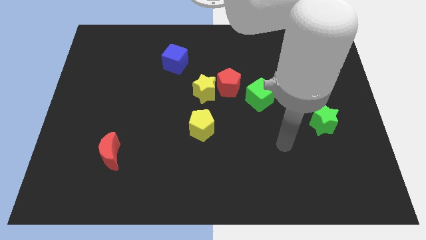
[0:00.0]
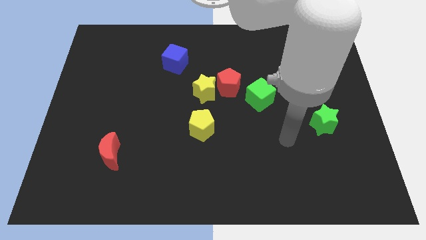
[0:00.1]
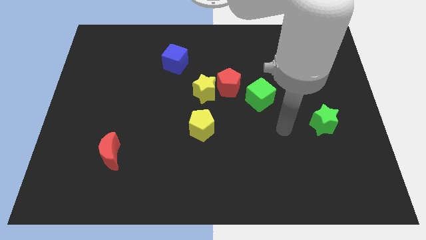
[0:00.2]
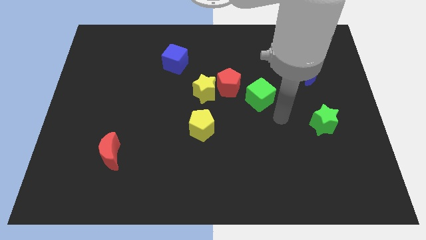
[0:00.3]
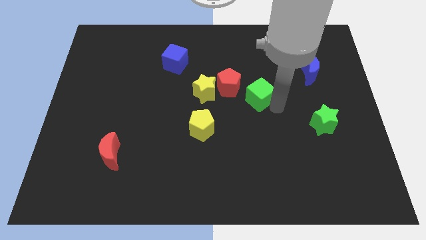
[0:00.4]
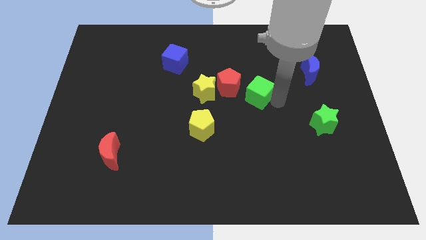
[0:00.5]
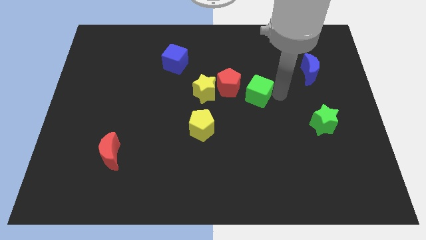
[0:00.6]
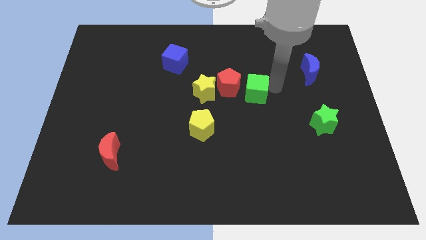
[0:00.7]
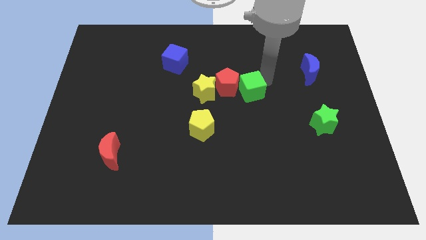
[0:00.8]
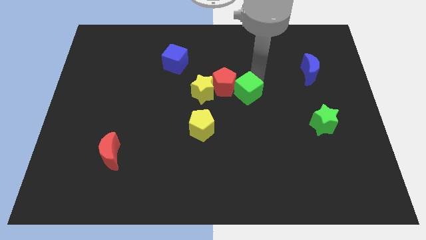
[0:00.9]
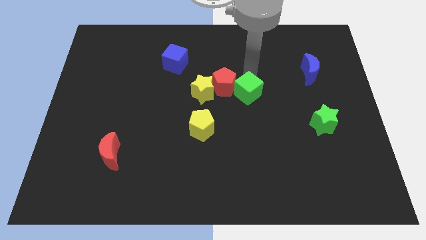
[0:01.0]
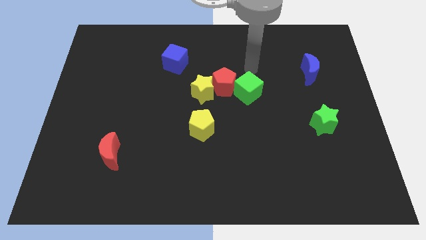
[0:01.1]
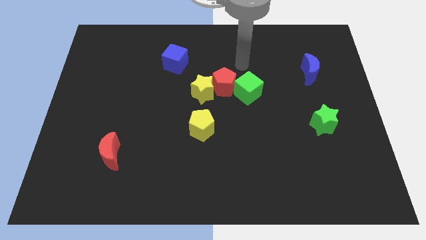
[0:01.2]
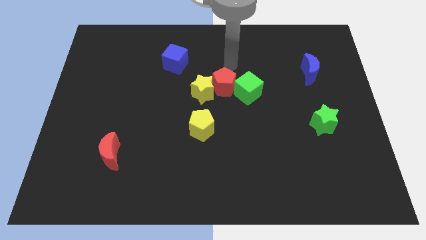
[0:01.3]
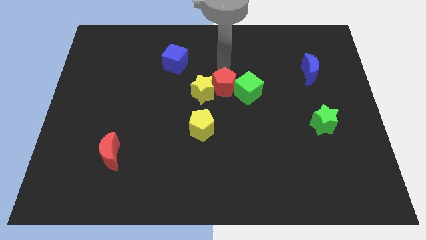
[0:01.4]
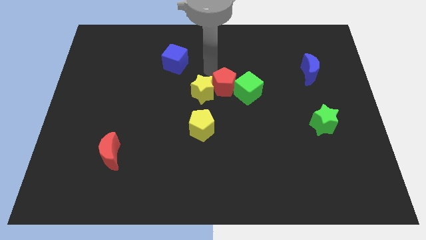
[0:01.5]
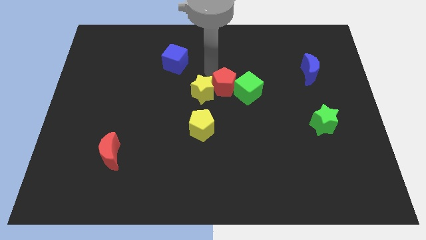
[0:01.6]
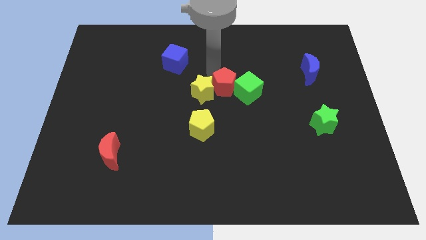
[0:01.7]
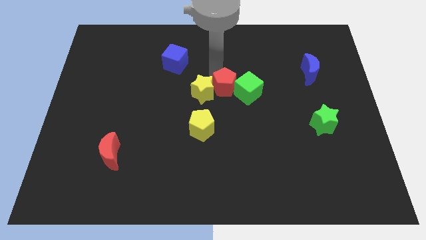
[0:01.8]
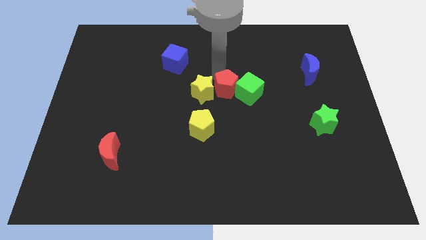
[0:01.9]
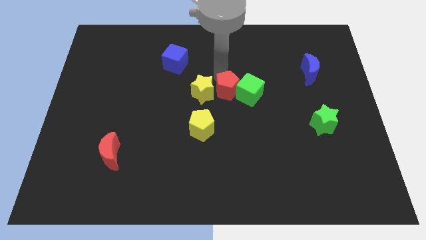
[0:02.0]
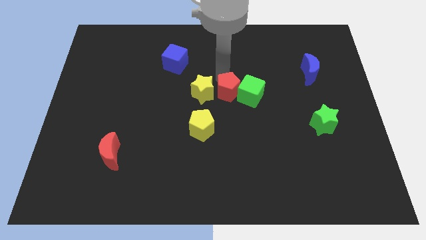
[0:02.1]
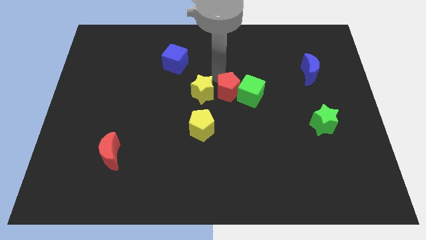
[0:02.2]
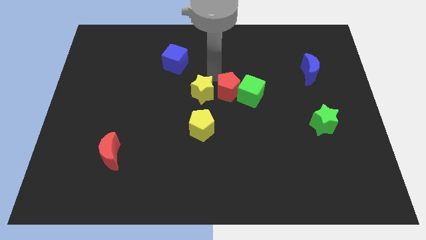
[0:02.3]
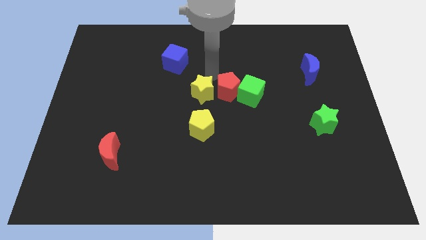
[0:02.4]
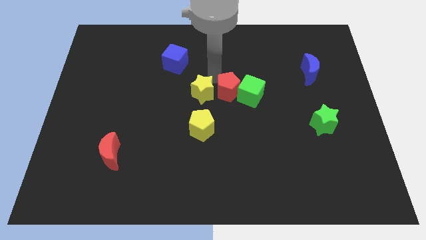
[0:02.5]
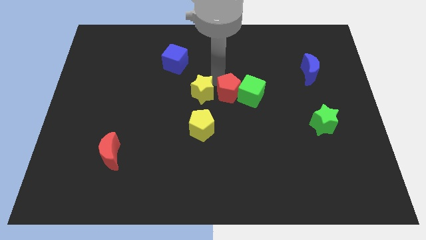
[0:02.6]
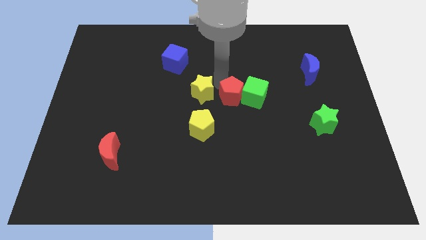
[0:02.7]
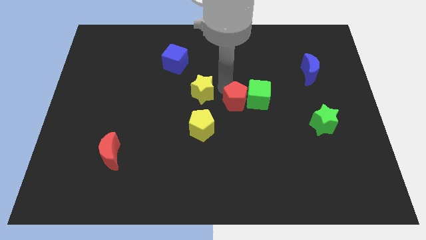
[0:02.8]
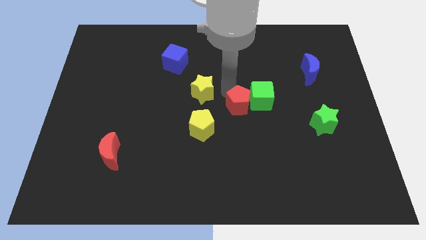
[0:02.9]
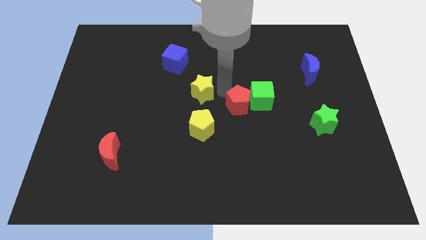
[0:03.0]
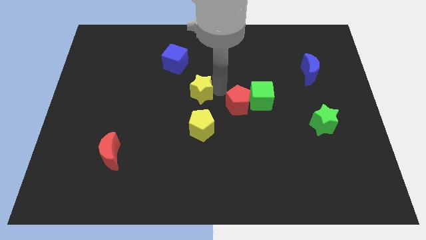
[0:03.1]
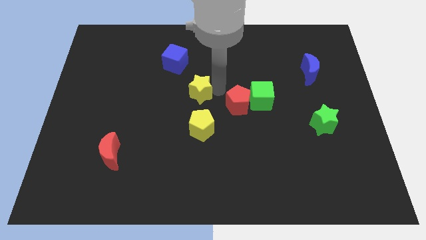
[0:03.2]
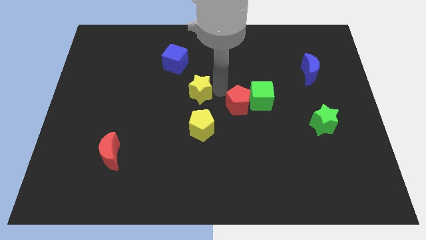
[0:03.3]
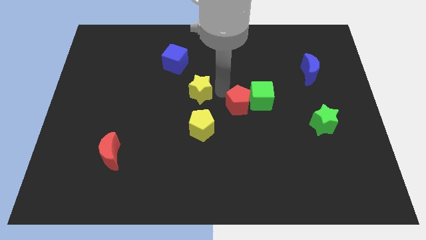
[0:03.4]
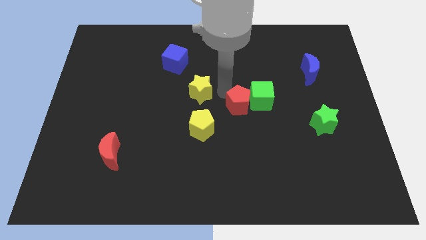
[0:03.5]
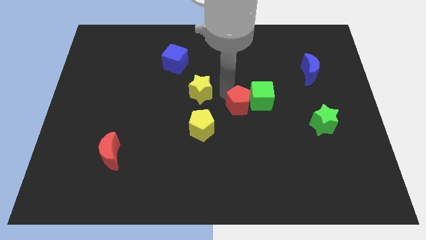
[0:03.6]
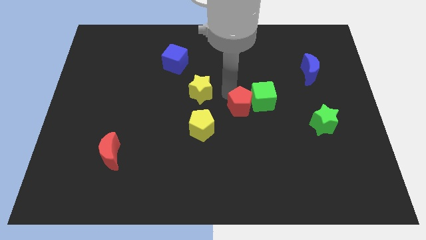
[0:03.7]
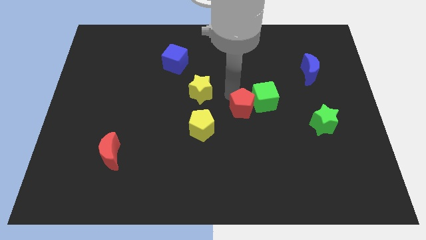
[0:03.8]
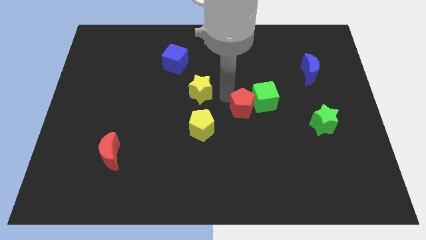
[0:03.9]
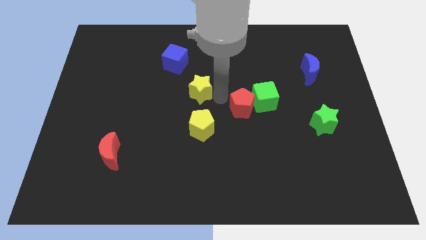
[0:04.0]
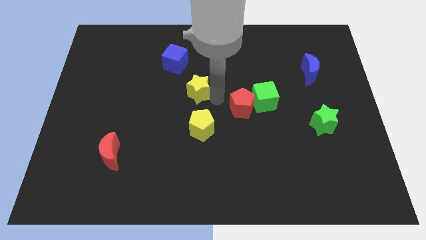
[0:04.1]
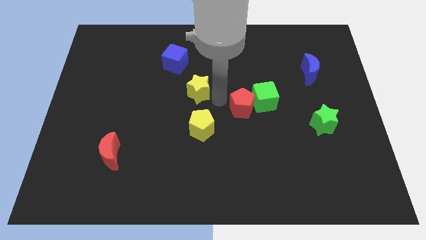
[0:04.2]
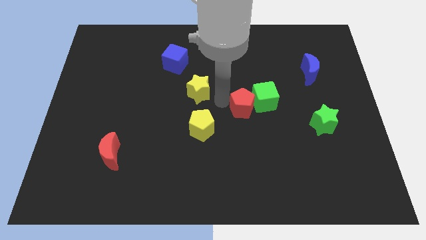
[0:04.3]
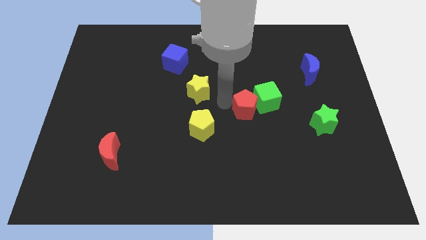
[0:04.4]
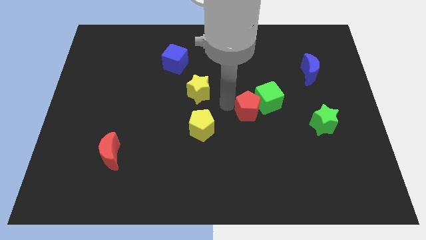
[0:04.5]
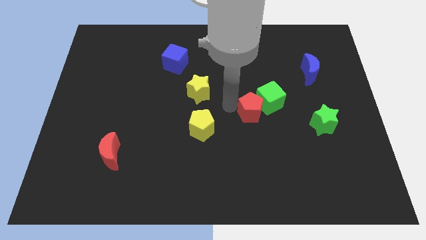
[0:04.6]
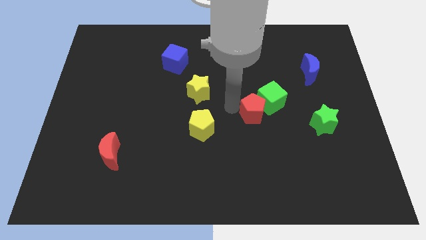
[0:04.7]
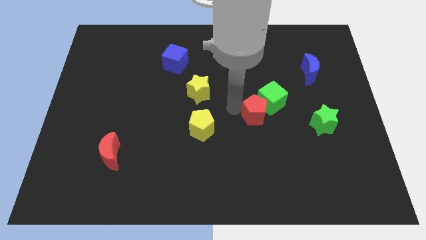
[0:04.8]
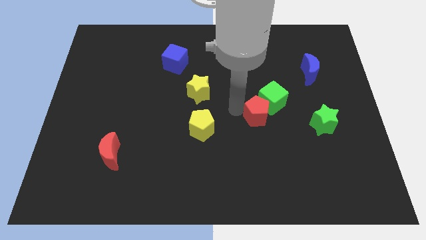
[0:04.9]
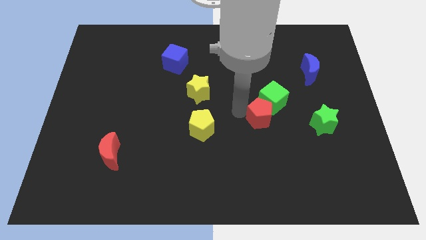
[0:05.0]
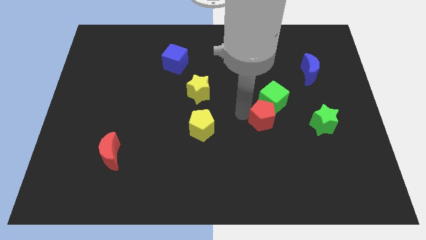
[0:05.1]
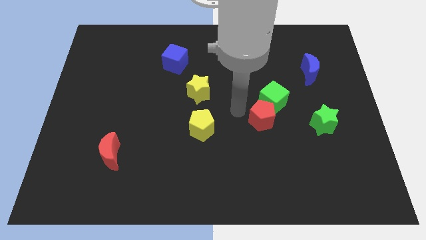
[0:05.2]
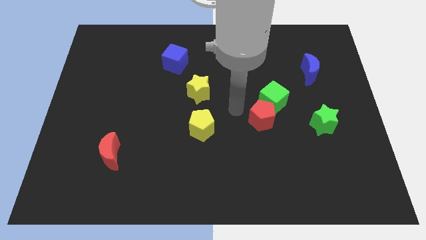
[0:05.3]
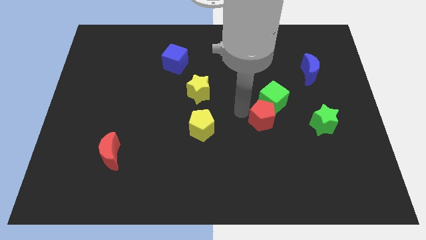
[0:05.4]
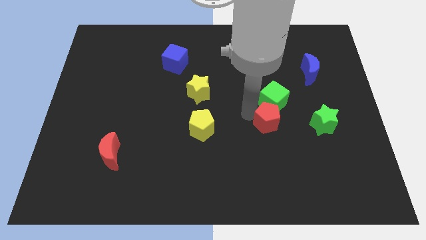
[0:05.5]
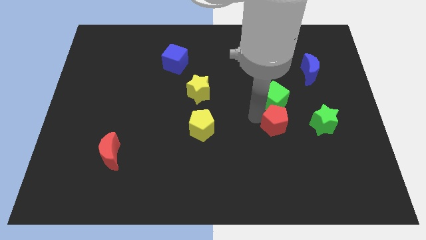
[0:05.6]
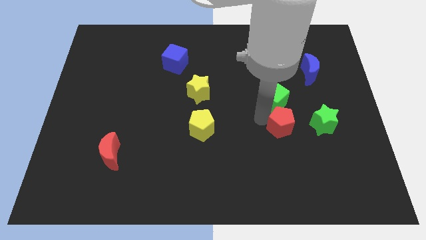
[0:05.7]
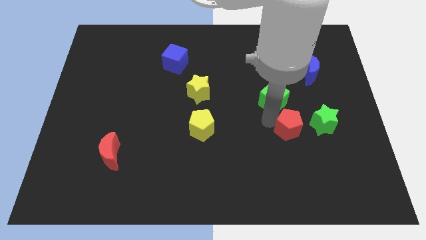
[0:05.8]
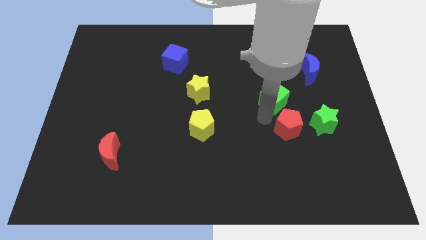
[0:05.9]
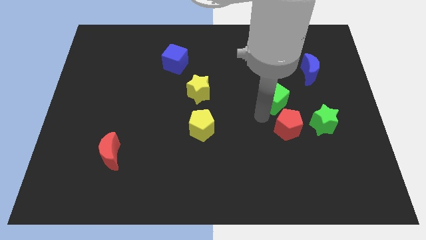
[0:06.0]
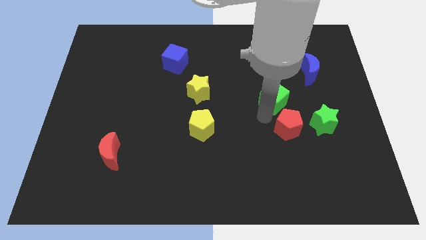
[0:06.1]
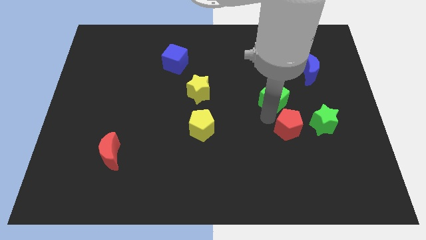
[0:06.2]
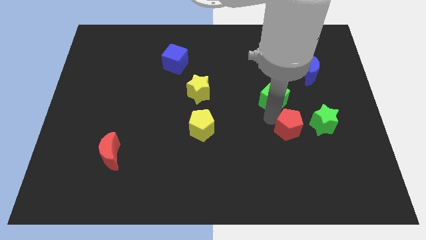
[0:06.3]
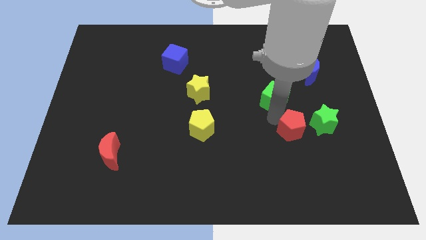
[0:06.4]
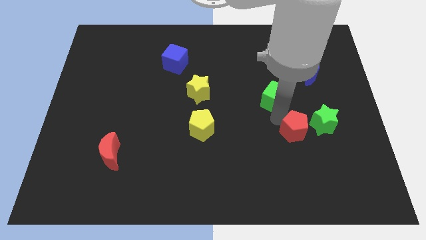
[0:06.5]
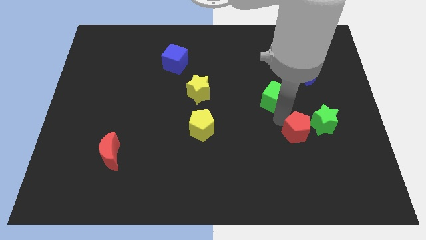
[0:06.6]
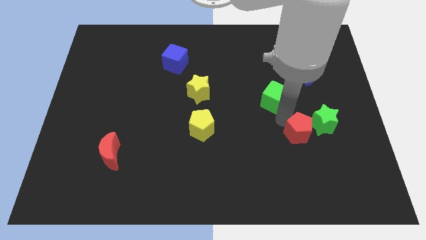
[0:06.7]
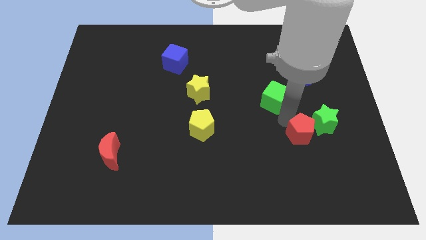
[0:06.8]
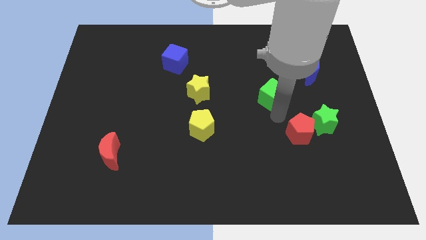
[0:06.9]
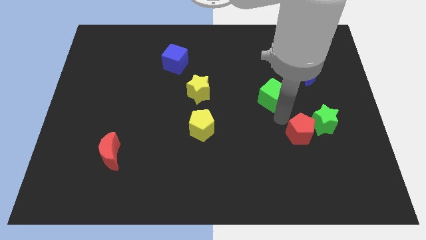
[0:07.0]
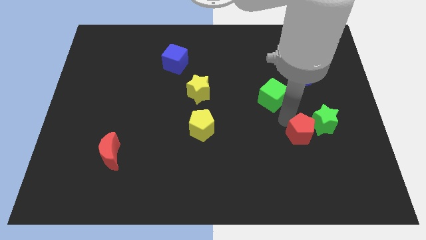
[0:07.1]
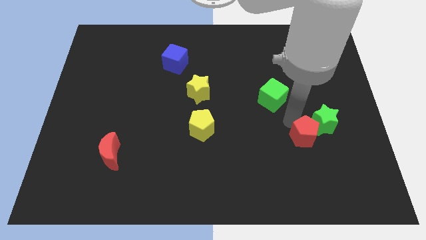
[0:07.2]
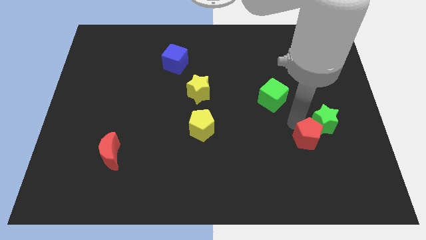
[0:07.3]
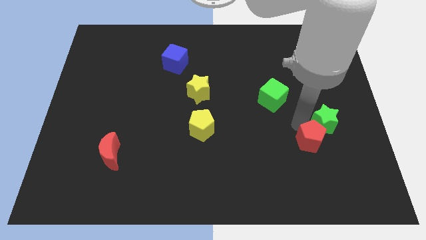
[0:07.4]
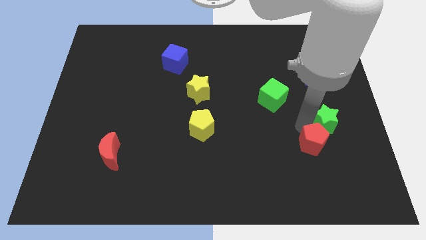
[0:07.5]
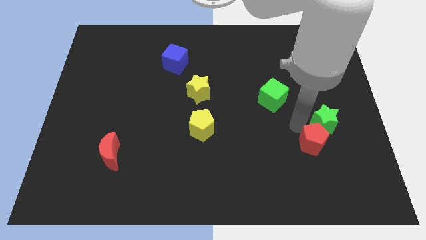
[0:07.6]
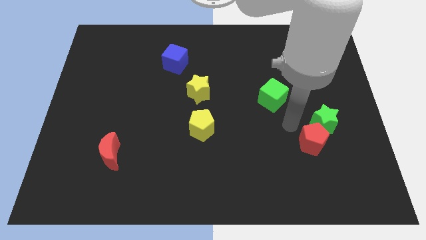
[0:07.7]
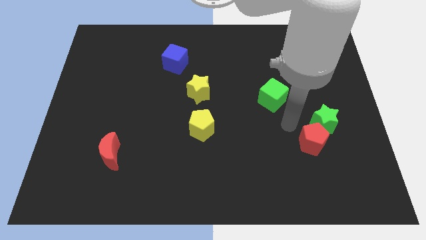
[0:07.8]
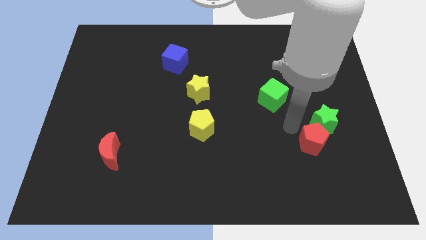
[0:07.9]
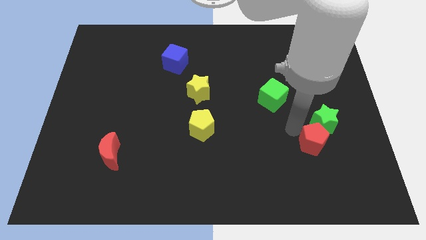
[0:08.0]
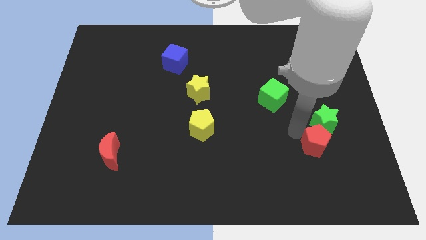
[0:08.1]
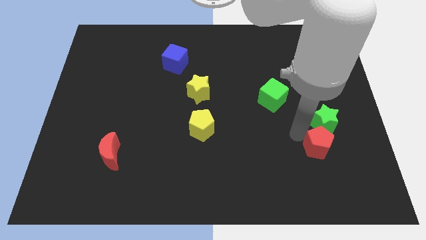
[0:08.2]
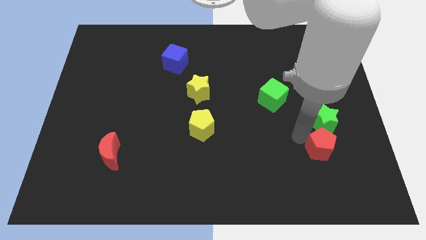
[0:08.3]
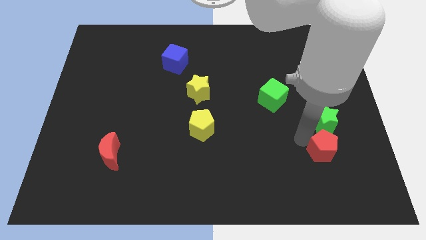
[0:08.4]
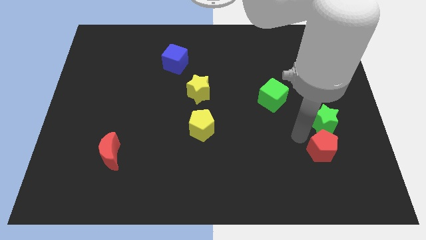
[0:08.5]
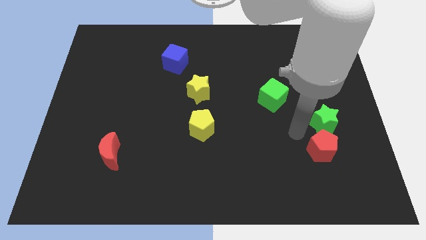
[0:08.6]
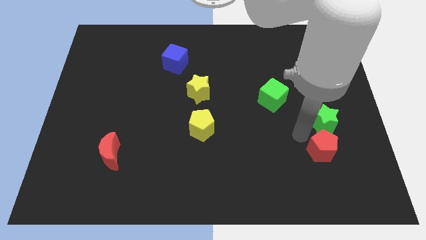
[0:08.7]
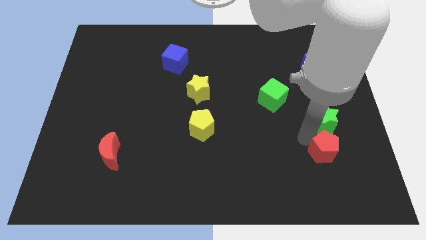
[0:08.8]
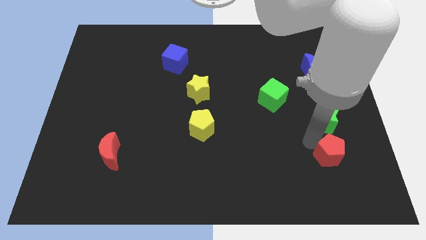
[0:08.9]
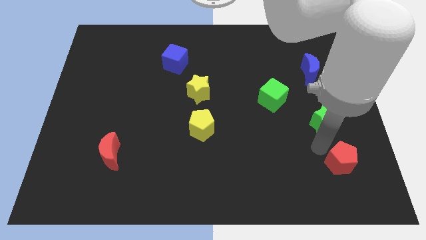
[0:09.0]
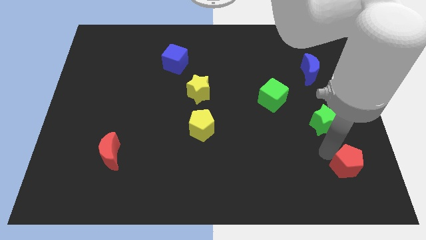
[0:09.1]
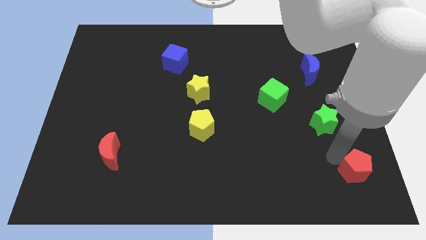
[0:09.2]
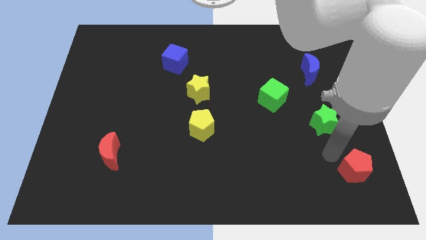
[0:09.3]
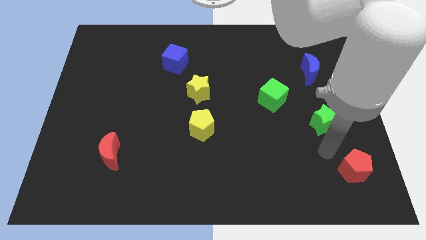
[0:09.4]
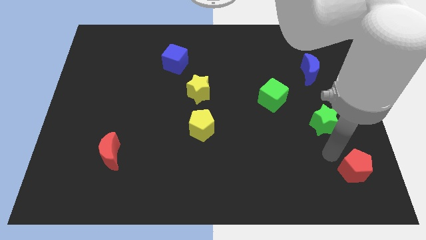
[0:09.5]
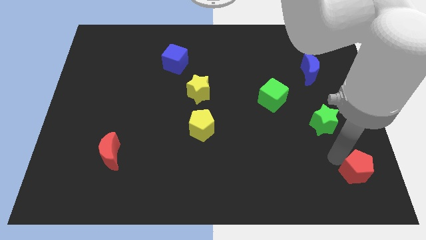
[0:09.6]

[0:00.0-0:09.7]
push the red pentagon to the bottom right corner
